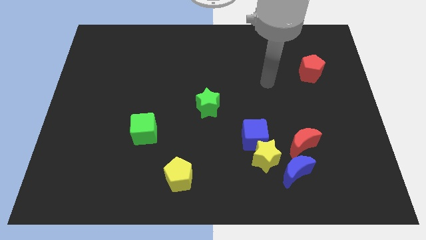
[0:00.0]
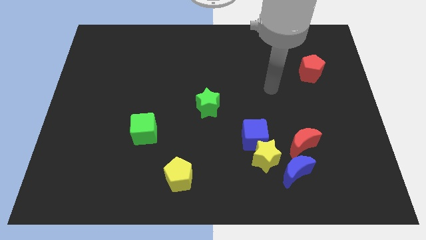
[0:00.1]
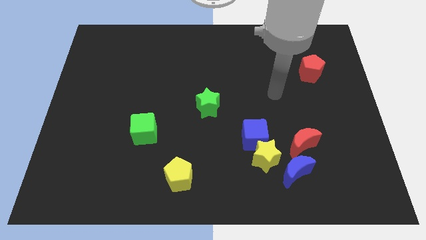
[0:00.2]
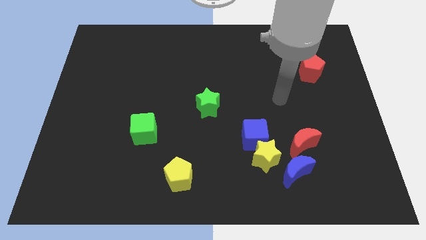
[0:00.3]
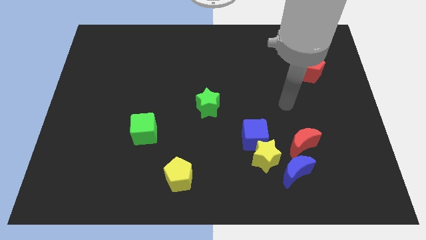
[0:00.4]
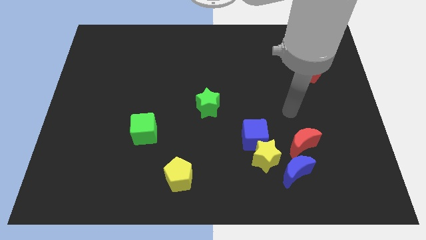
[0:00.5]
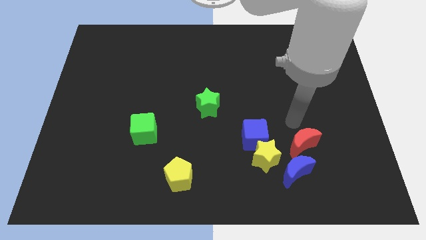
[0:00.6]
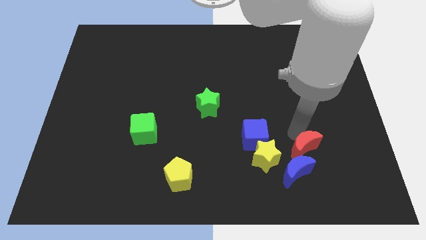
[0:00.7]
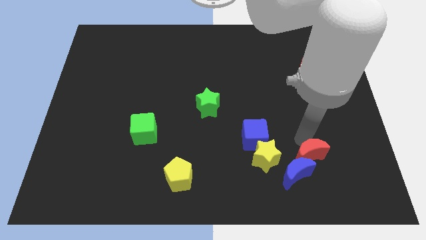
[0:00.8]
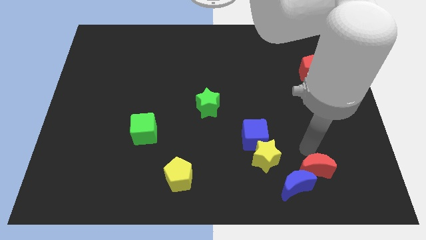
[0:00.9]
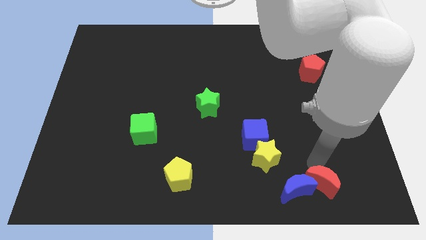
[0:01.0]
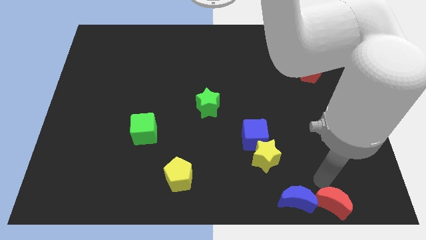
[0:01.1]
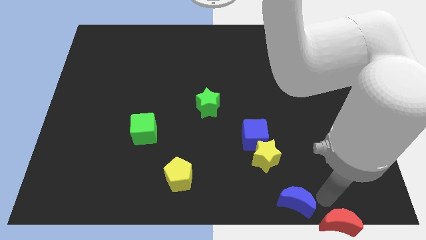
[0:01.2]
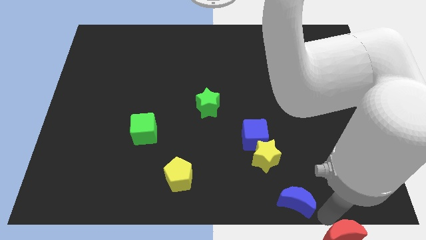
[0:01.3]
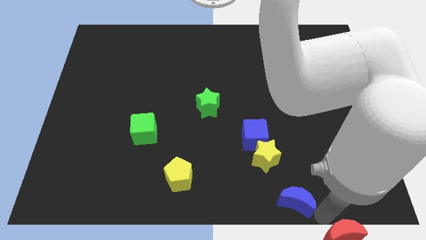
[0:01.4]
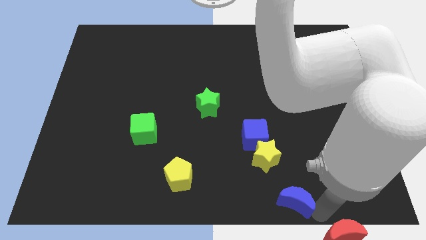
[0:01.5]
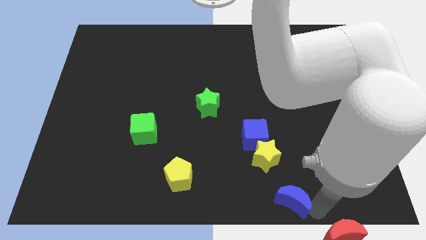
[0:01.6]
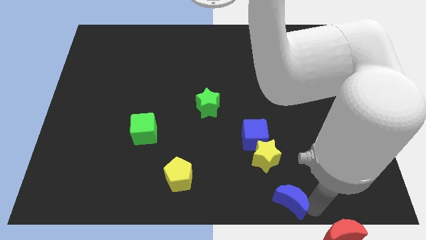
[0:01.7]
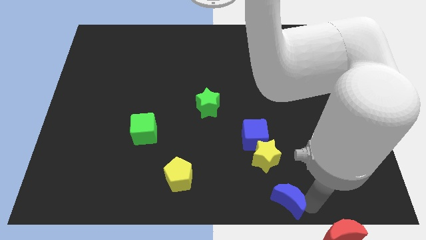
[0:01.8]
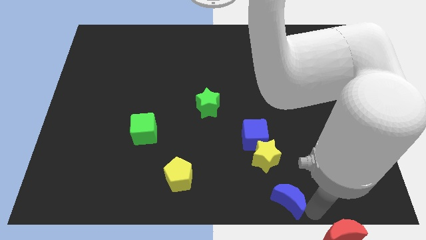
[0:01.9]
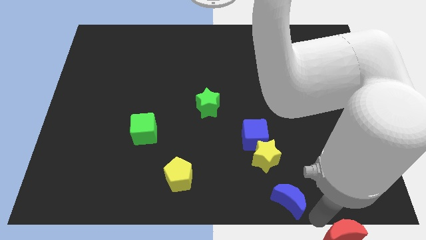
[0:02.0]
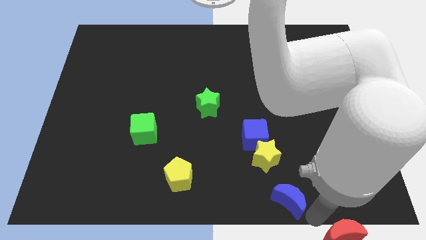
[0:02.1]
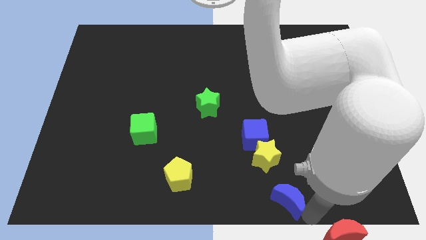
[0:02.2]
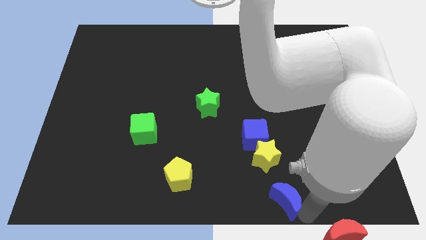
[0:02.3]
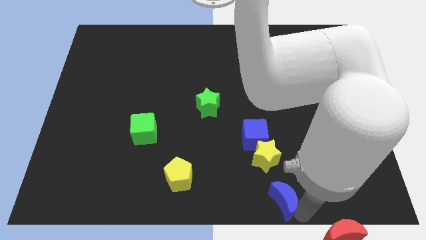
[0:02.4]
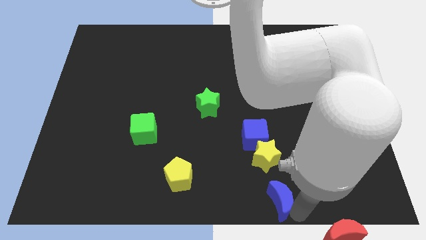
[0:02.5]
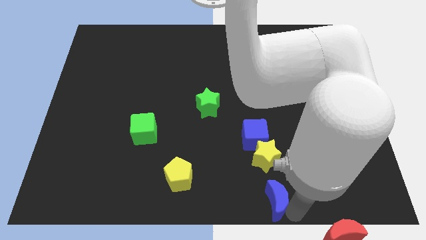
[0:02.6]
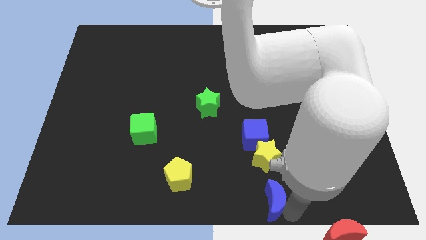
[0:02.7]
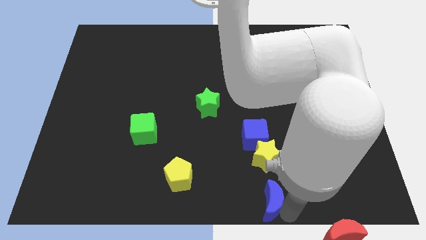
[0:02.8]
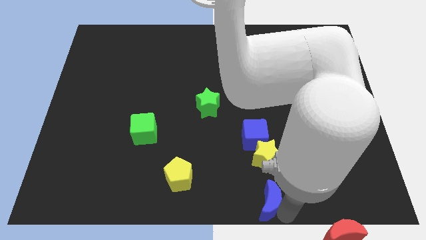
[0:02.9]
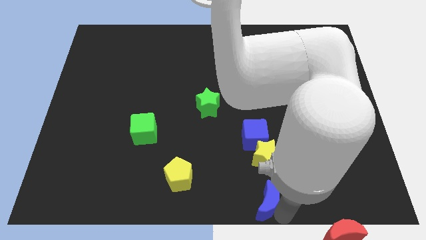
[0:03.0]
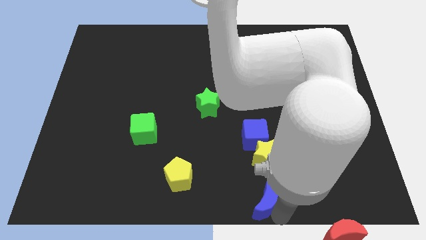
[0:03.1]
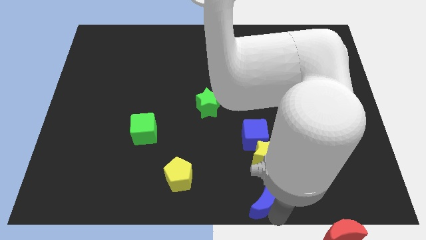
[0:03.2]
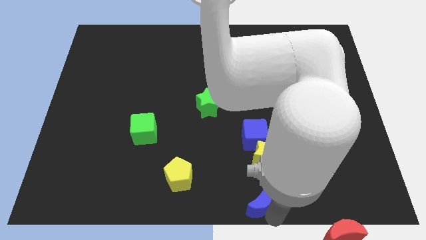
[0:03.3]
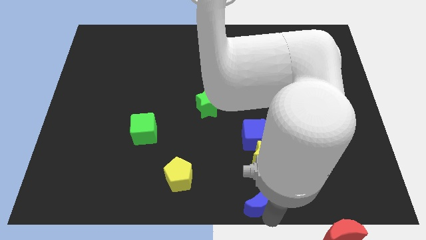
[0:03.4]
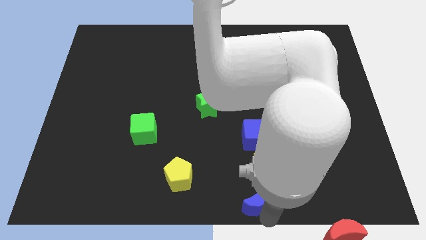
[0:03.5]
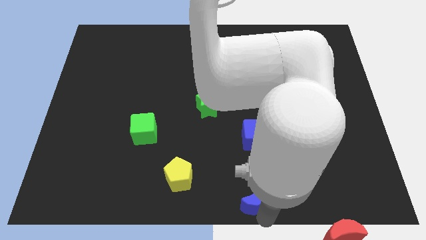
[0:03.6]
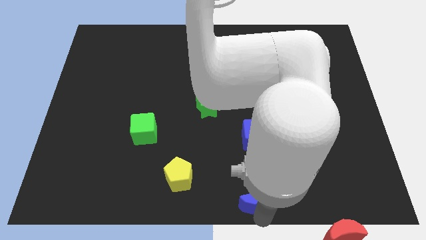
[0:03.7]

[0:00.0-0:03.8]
slightly slide the blue moon to the left

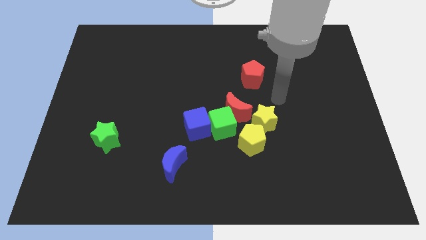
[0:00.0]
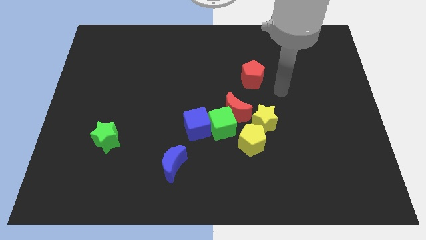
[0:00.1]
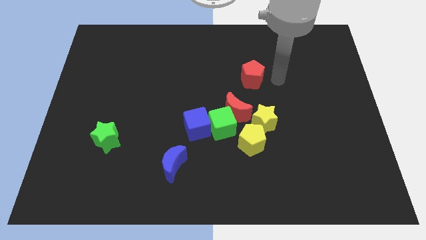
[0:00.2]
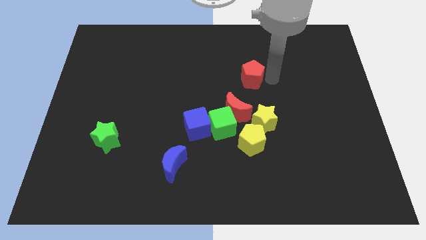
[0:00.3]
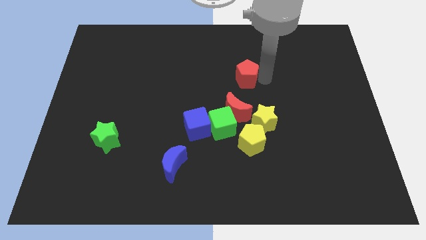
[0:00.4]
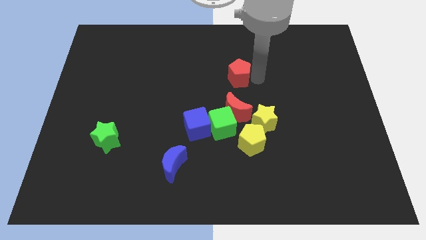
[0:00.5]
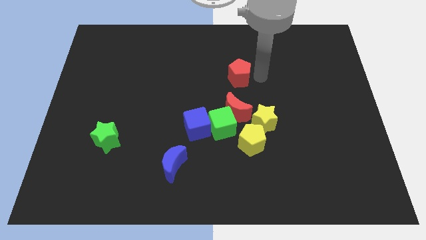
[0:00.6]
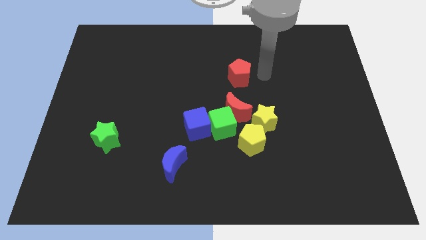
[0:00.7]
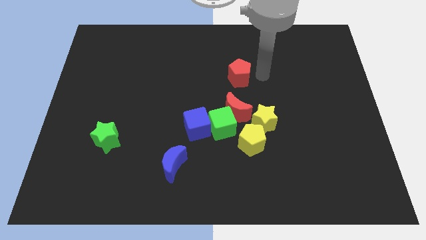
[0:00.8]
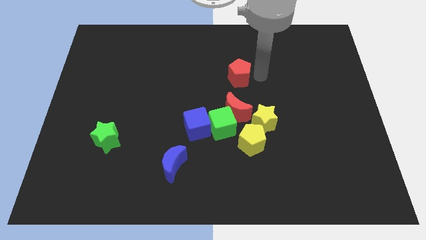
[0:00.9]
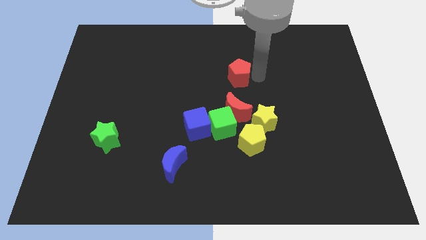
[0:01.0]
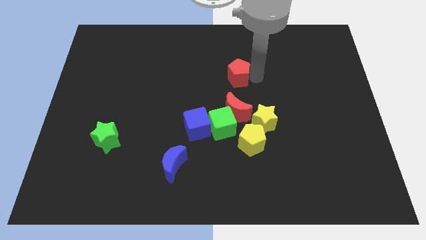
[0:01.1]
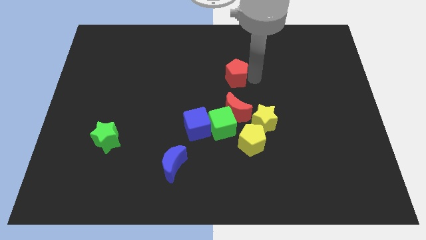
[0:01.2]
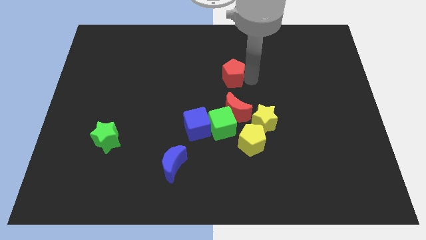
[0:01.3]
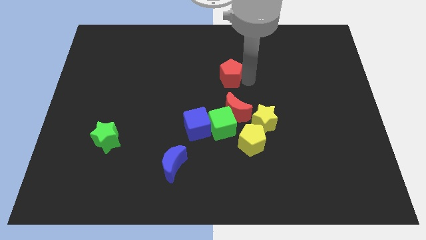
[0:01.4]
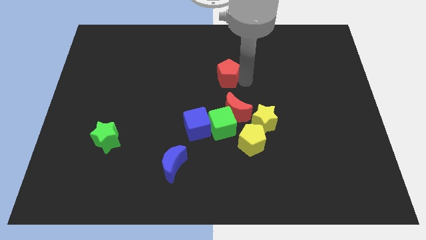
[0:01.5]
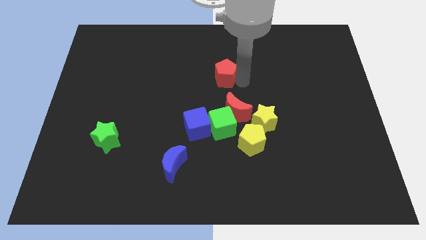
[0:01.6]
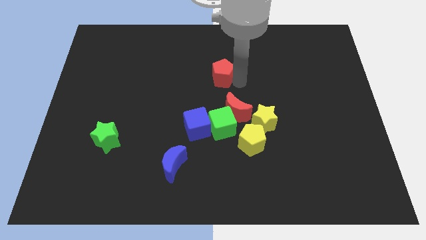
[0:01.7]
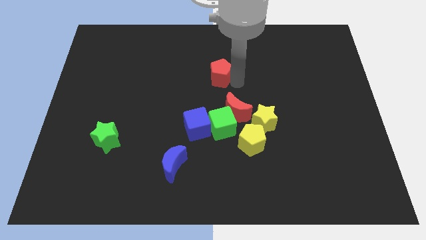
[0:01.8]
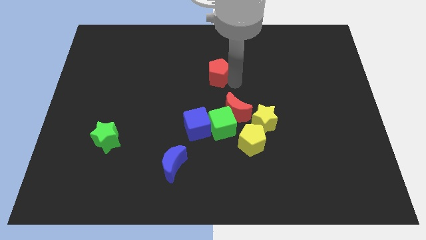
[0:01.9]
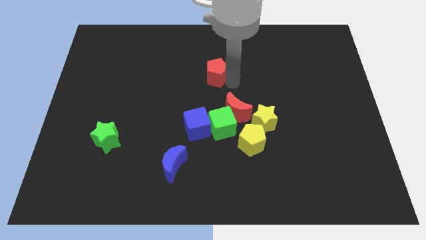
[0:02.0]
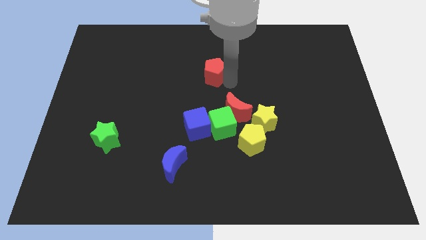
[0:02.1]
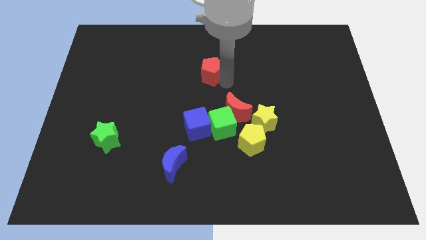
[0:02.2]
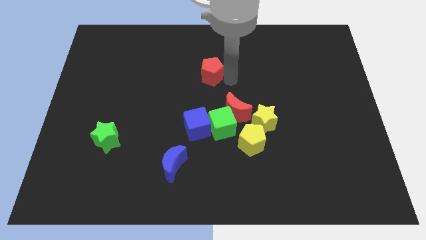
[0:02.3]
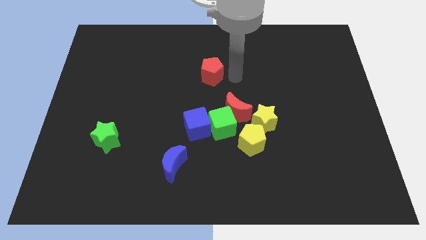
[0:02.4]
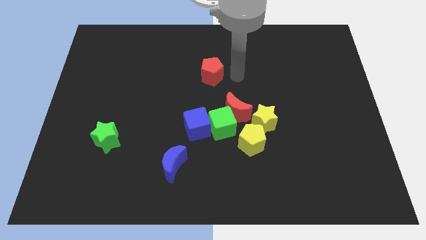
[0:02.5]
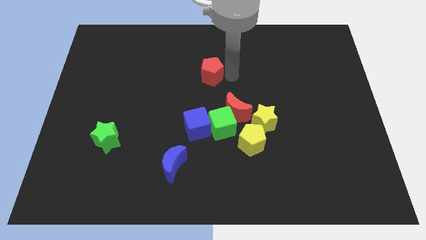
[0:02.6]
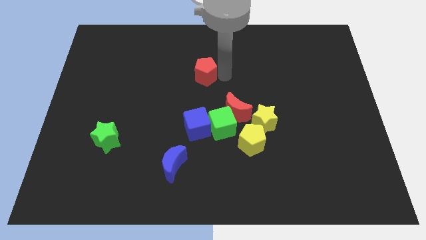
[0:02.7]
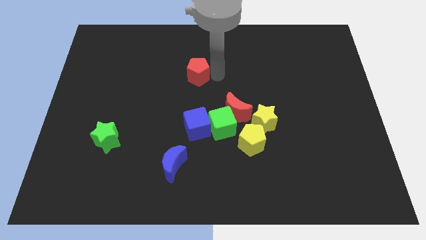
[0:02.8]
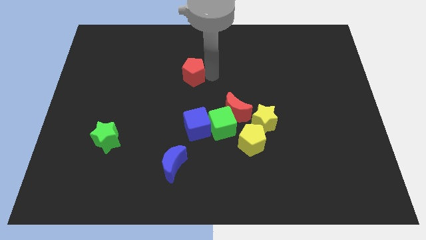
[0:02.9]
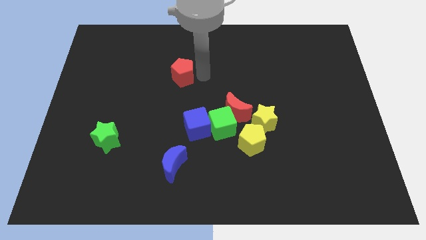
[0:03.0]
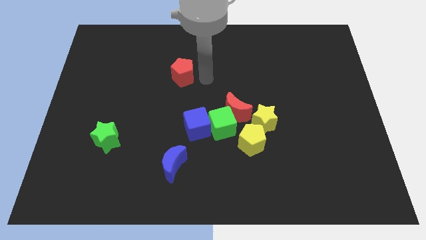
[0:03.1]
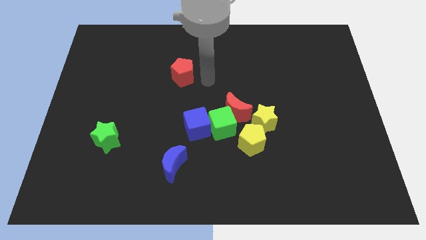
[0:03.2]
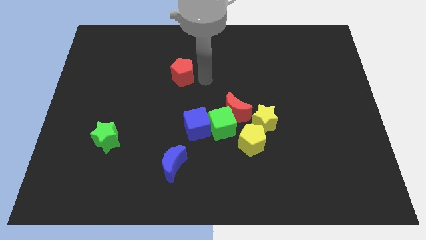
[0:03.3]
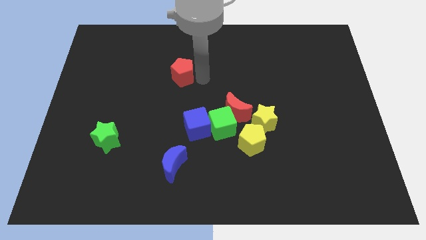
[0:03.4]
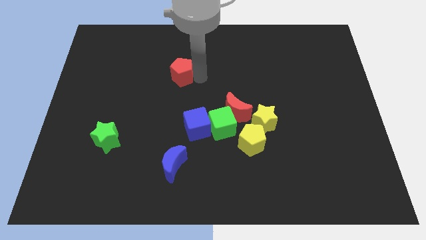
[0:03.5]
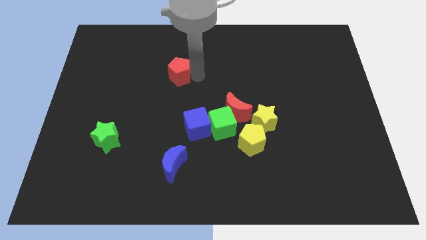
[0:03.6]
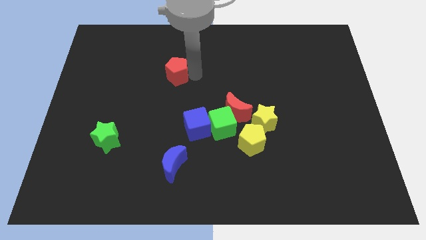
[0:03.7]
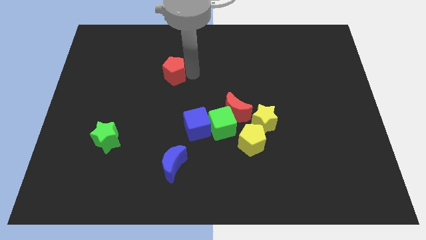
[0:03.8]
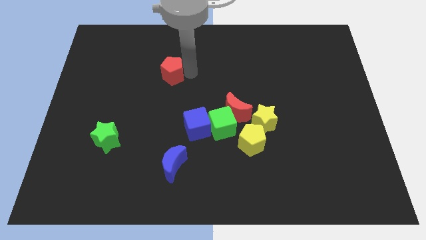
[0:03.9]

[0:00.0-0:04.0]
push the red pentagon left

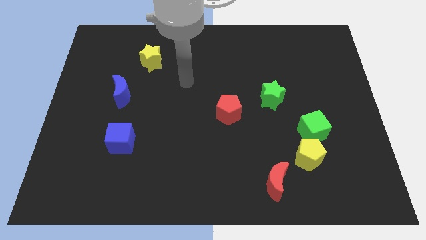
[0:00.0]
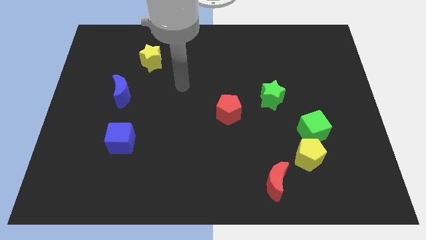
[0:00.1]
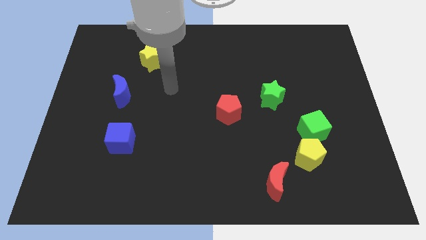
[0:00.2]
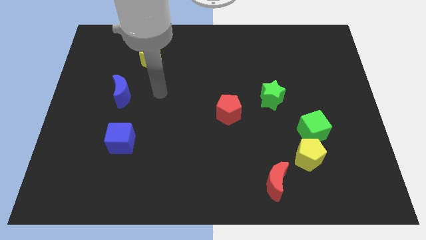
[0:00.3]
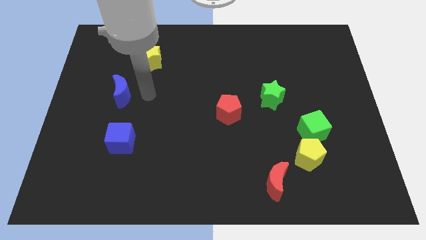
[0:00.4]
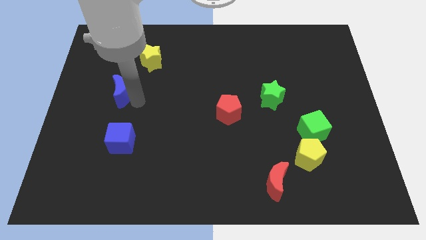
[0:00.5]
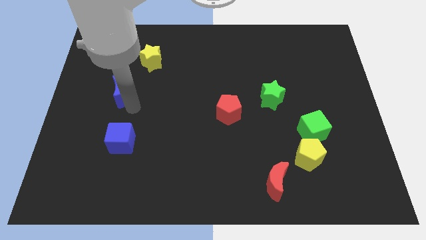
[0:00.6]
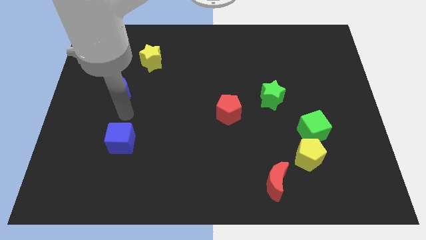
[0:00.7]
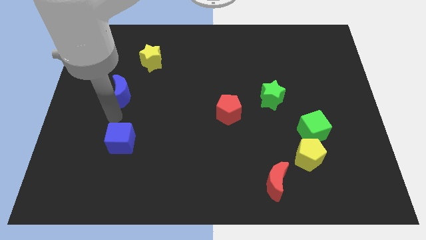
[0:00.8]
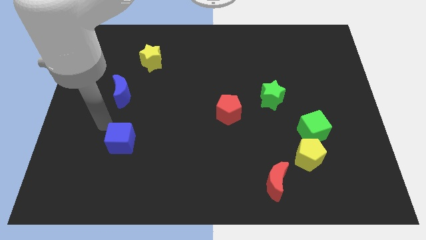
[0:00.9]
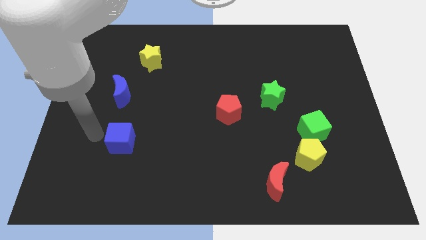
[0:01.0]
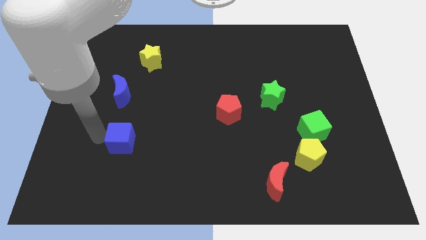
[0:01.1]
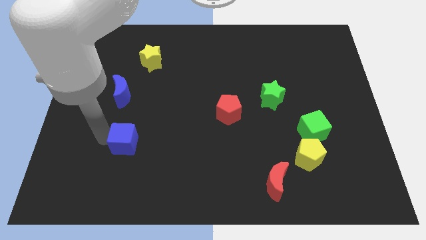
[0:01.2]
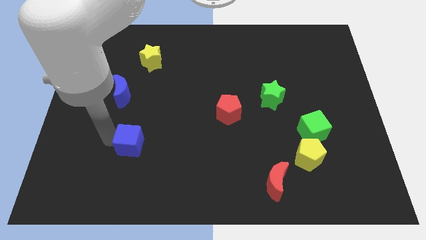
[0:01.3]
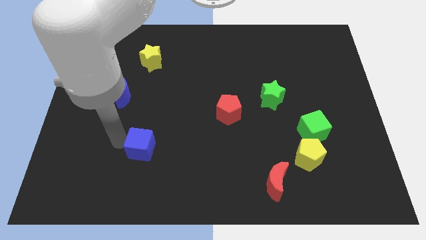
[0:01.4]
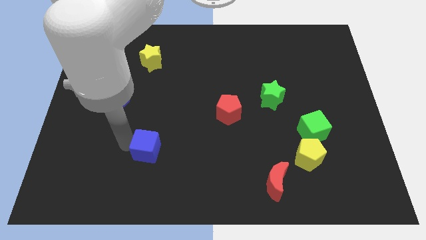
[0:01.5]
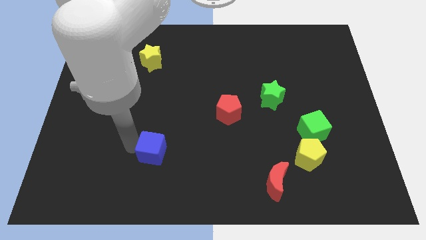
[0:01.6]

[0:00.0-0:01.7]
slightly move the blue cube to the right
